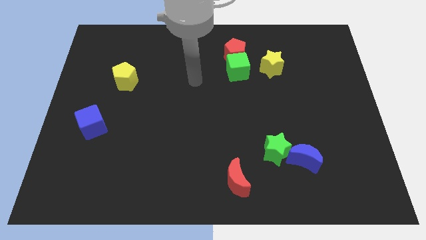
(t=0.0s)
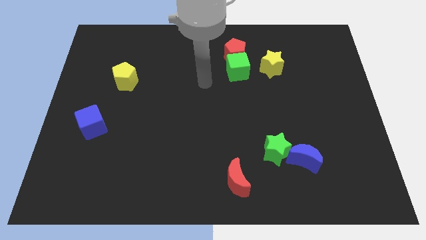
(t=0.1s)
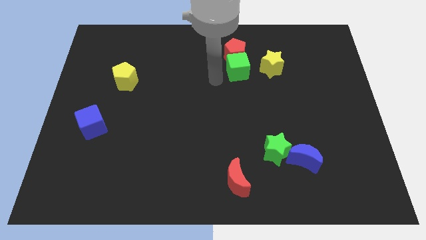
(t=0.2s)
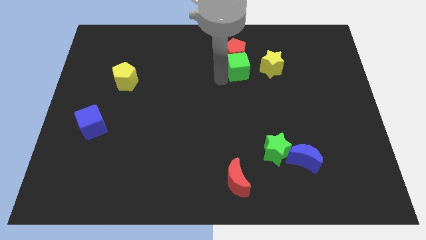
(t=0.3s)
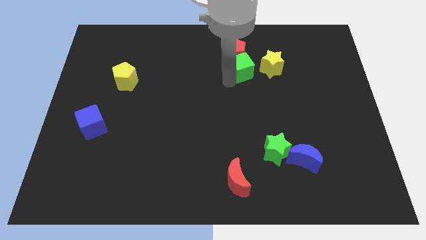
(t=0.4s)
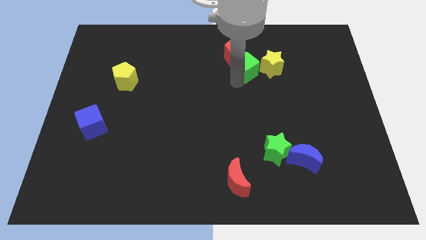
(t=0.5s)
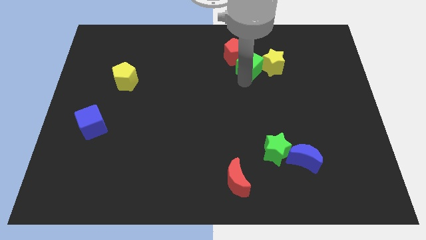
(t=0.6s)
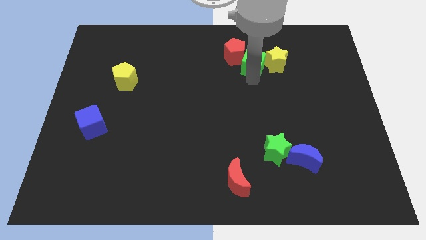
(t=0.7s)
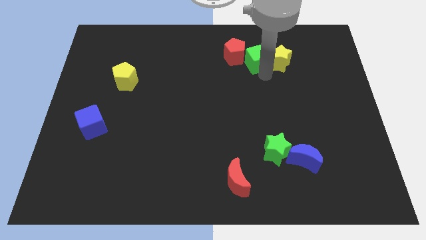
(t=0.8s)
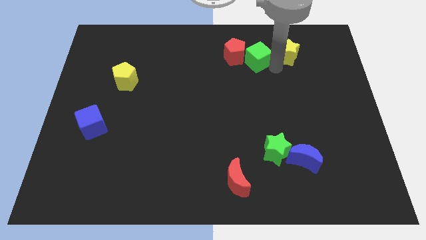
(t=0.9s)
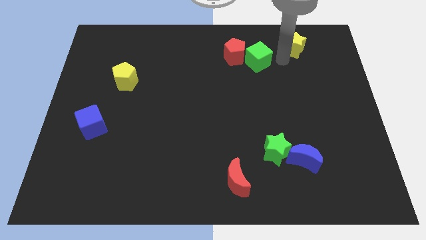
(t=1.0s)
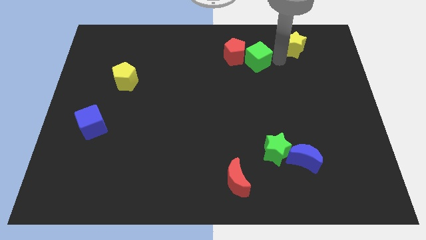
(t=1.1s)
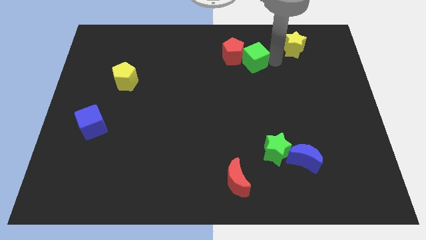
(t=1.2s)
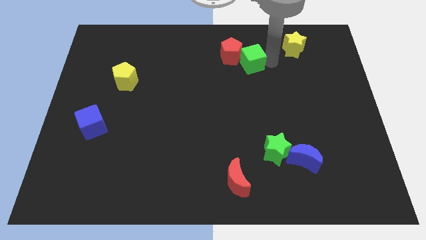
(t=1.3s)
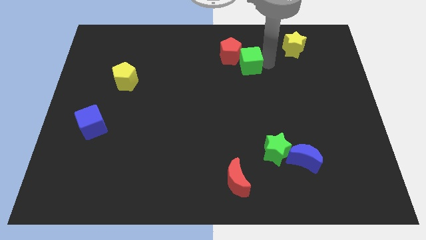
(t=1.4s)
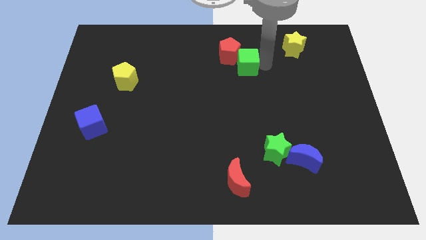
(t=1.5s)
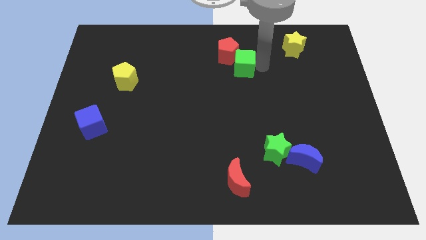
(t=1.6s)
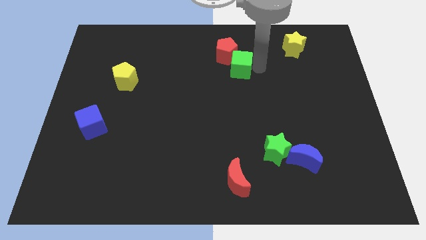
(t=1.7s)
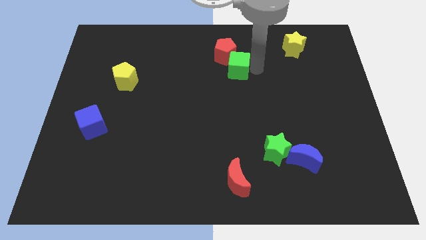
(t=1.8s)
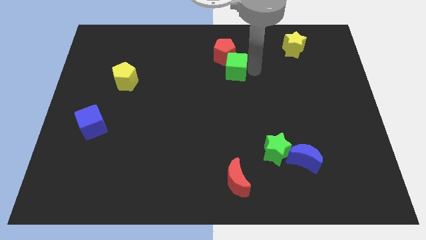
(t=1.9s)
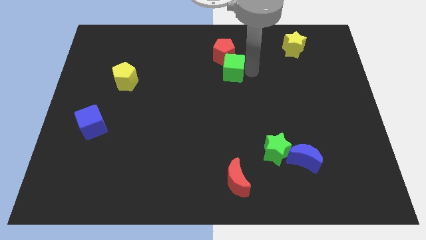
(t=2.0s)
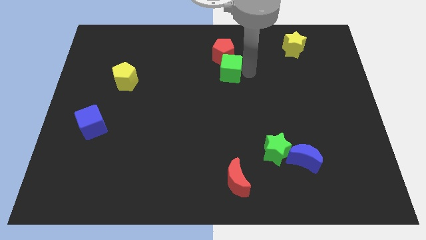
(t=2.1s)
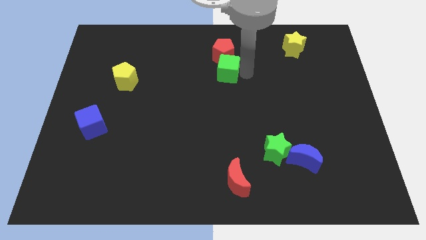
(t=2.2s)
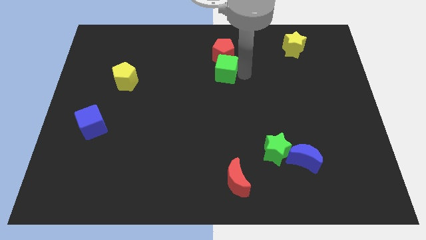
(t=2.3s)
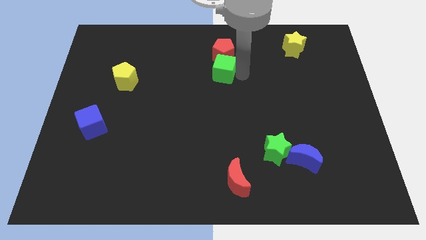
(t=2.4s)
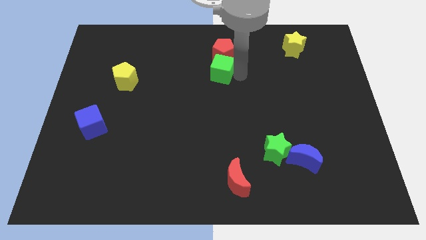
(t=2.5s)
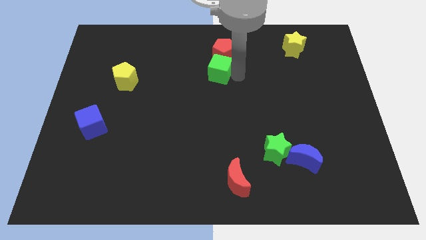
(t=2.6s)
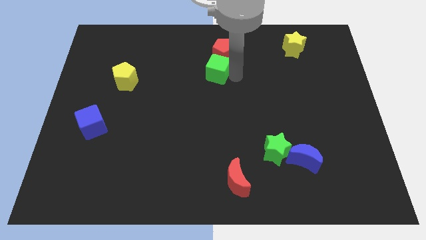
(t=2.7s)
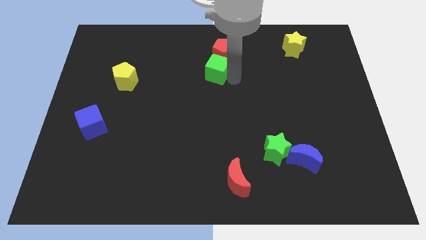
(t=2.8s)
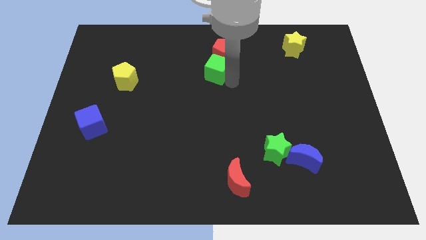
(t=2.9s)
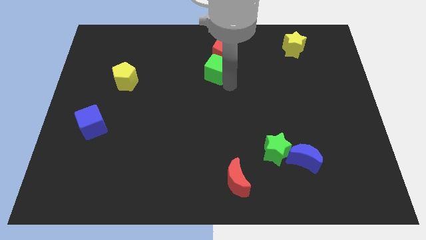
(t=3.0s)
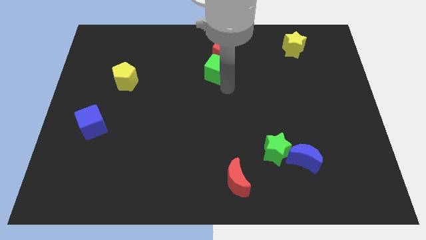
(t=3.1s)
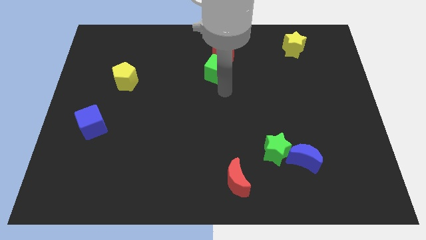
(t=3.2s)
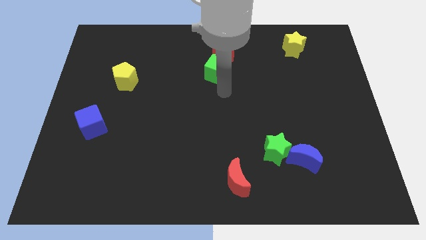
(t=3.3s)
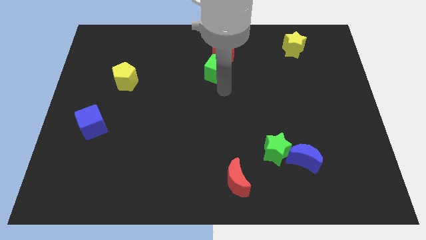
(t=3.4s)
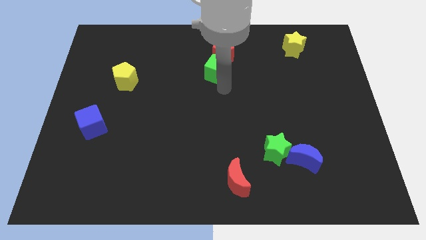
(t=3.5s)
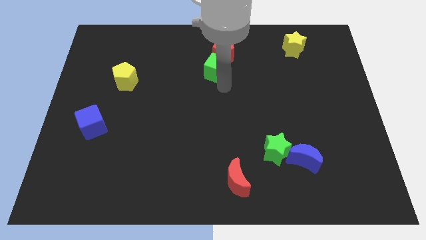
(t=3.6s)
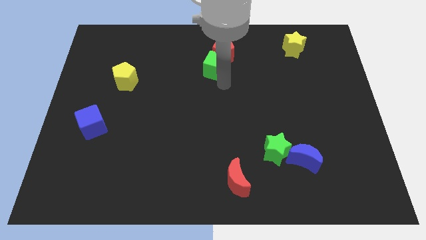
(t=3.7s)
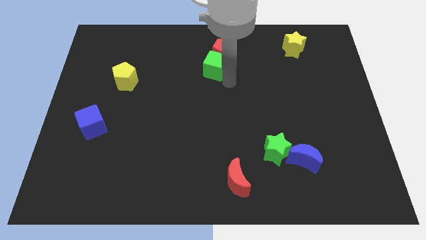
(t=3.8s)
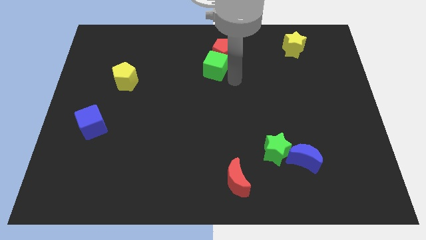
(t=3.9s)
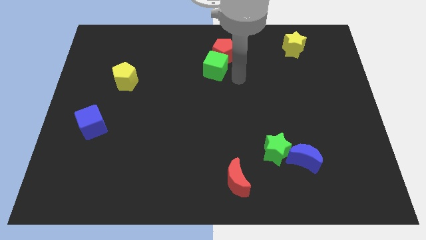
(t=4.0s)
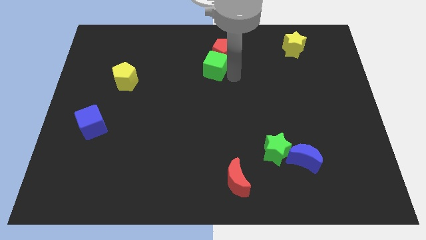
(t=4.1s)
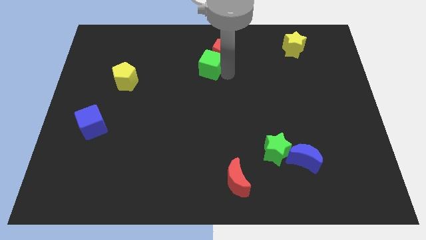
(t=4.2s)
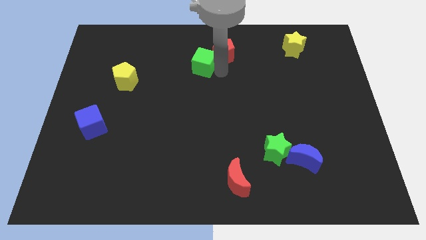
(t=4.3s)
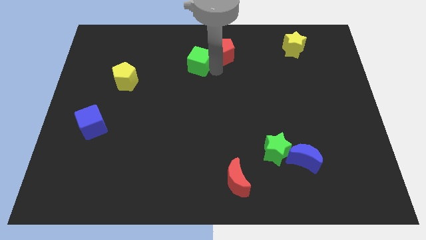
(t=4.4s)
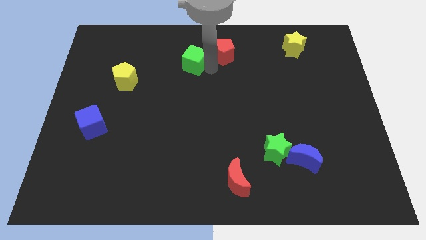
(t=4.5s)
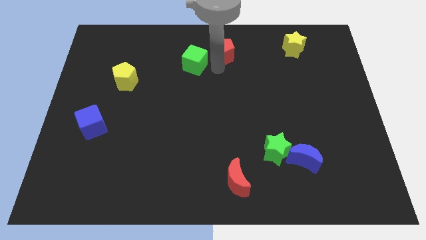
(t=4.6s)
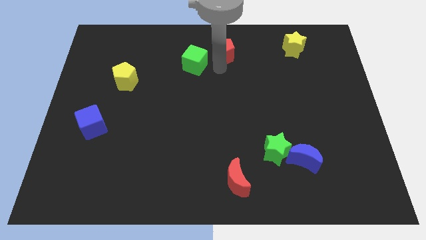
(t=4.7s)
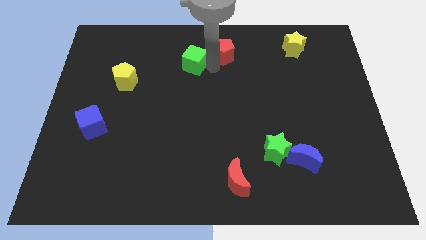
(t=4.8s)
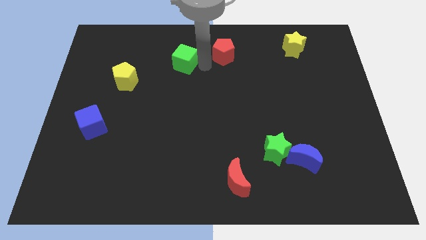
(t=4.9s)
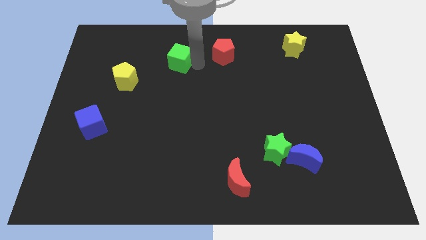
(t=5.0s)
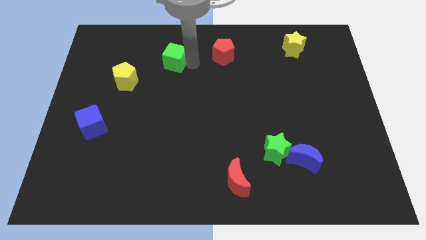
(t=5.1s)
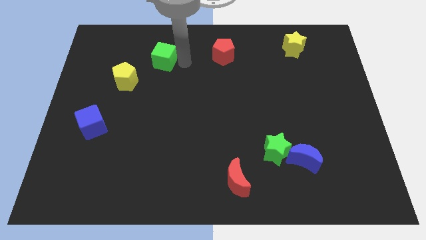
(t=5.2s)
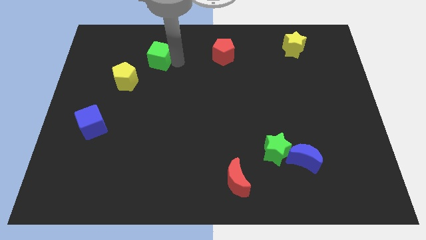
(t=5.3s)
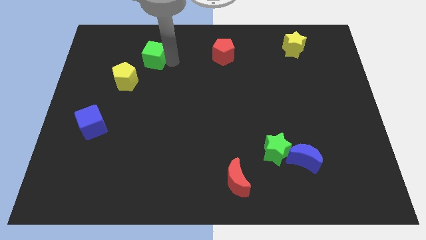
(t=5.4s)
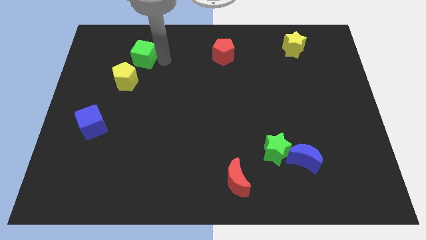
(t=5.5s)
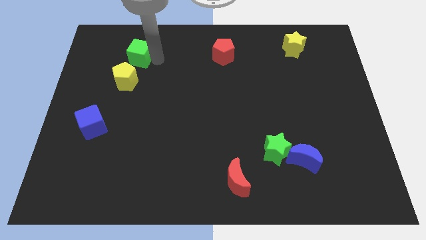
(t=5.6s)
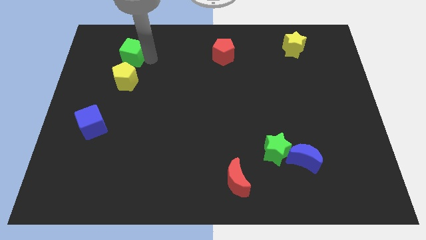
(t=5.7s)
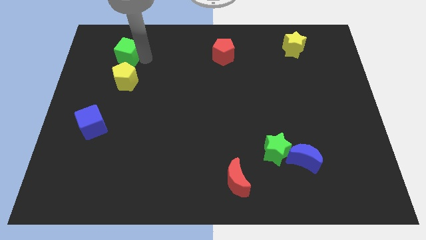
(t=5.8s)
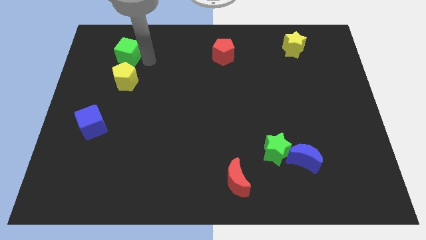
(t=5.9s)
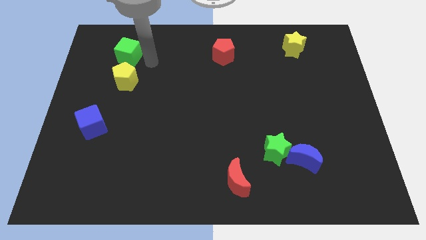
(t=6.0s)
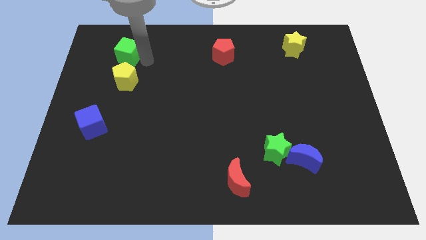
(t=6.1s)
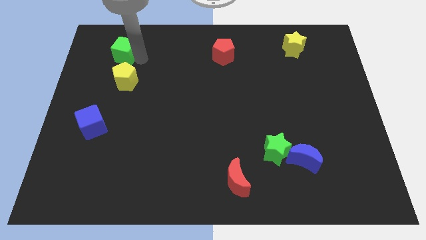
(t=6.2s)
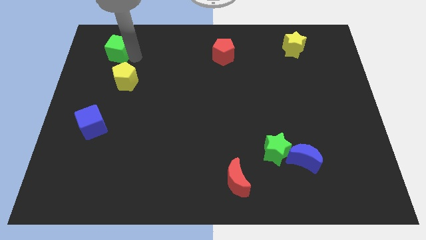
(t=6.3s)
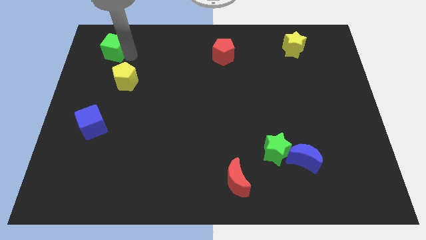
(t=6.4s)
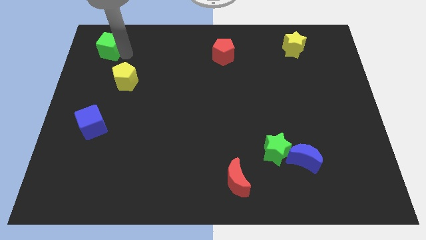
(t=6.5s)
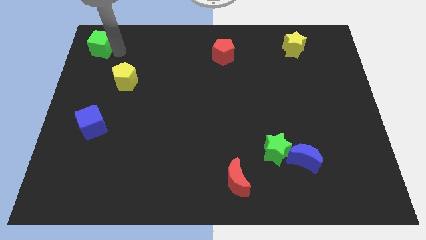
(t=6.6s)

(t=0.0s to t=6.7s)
move the green cube to the upper left corner
